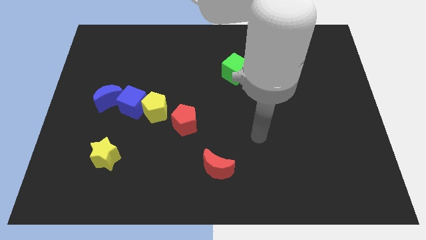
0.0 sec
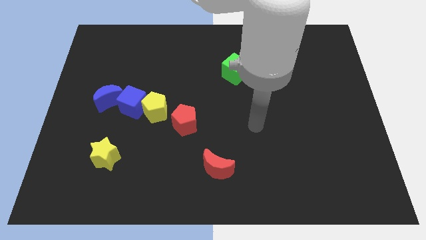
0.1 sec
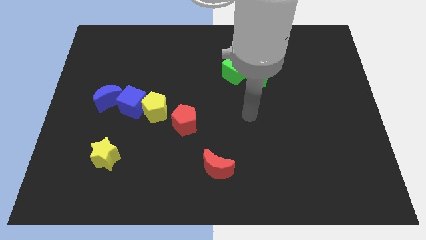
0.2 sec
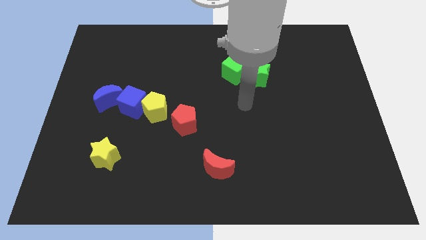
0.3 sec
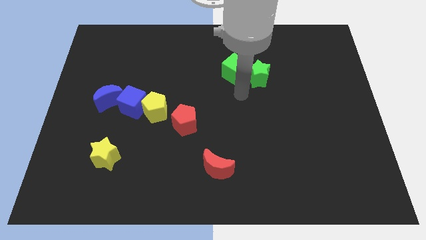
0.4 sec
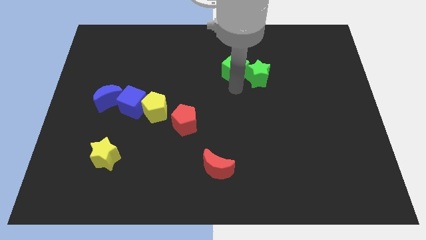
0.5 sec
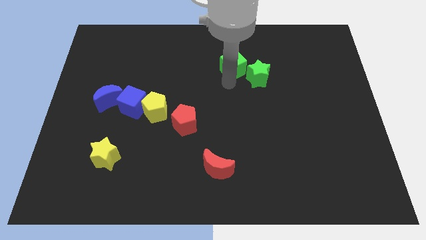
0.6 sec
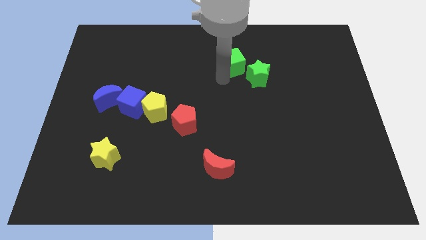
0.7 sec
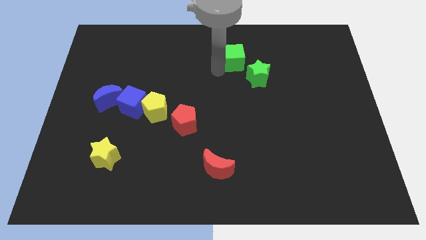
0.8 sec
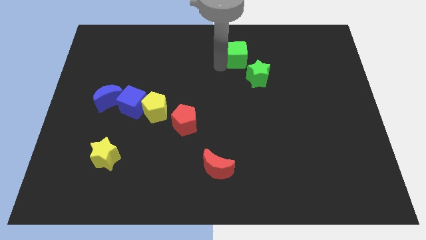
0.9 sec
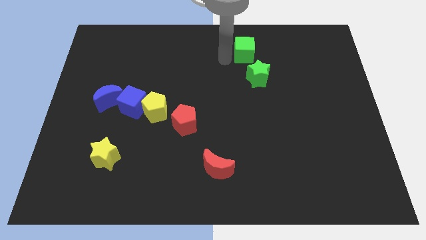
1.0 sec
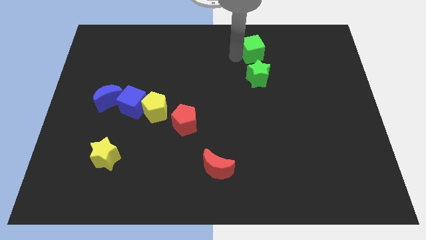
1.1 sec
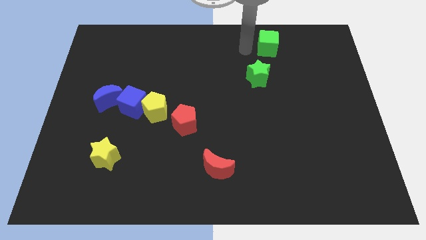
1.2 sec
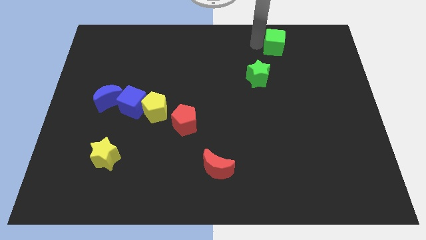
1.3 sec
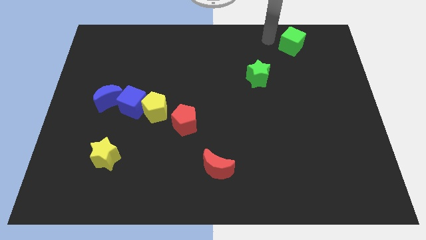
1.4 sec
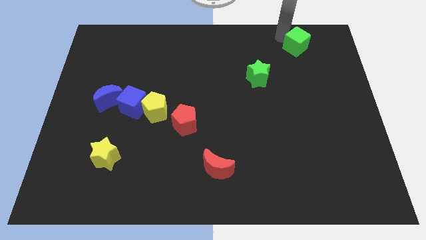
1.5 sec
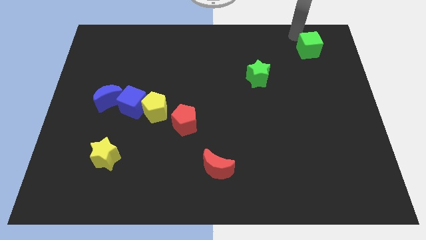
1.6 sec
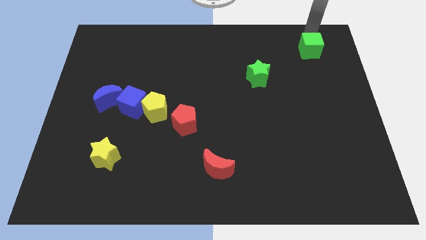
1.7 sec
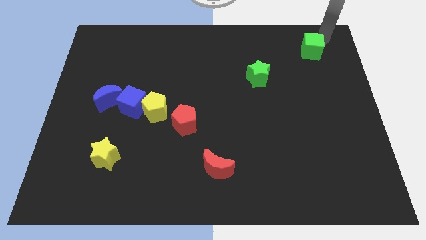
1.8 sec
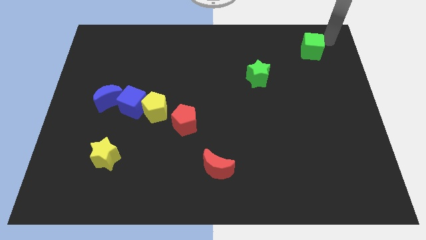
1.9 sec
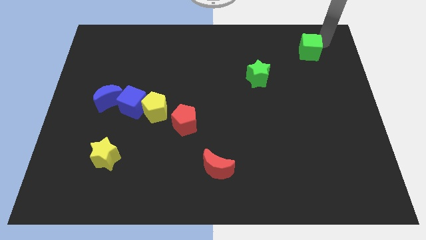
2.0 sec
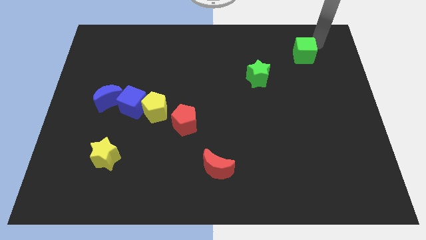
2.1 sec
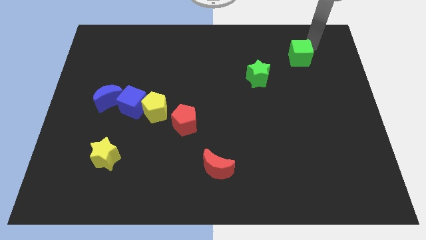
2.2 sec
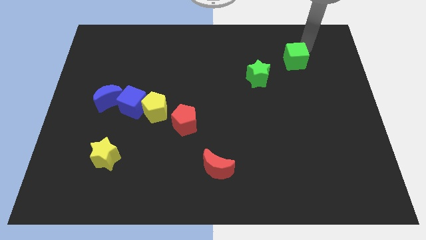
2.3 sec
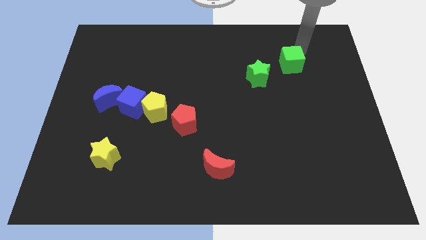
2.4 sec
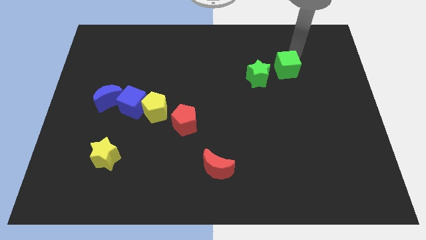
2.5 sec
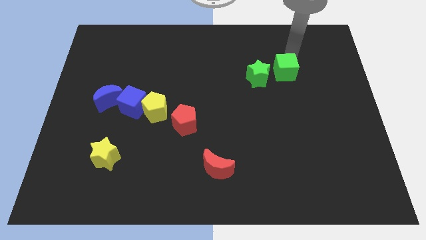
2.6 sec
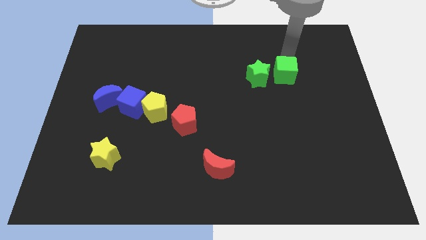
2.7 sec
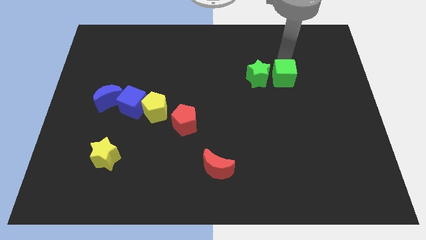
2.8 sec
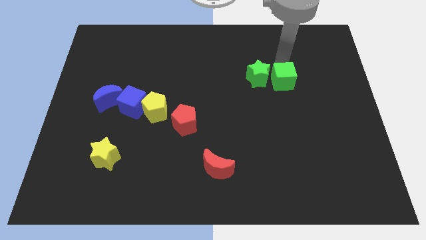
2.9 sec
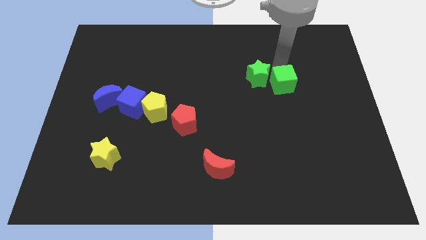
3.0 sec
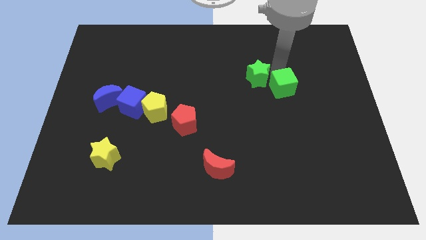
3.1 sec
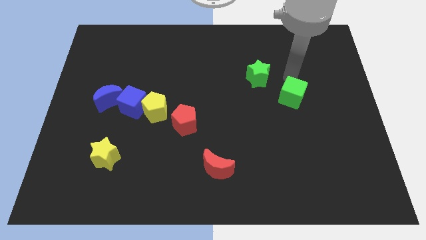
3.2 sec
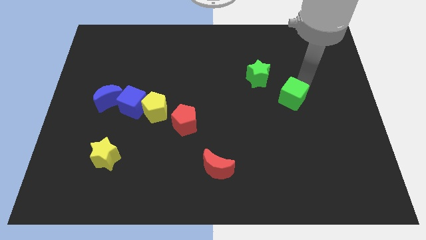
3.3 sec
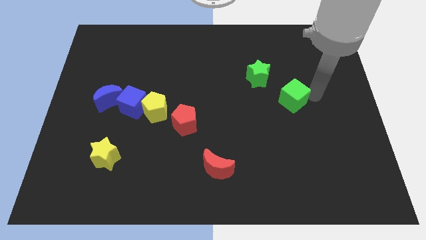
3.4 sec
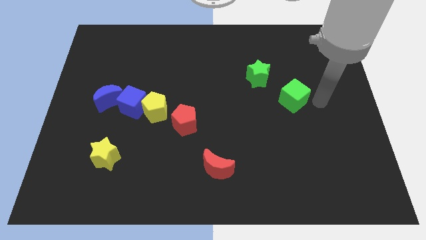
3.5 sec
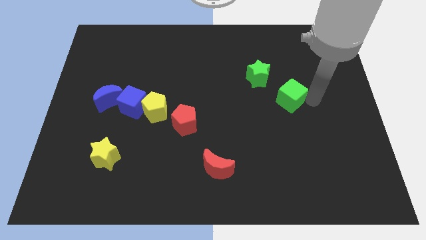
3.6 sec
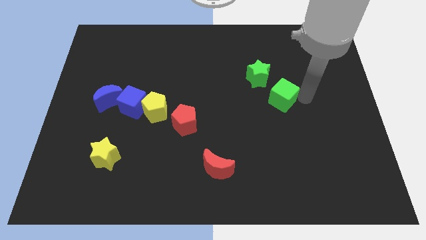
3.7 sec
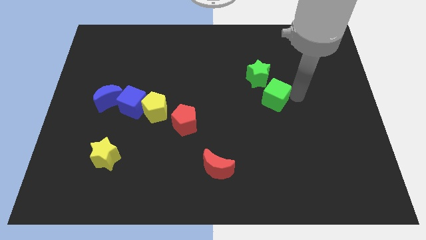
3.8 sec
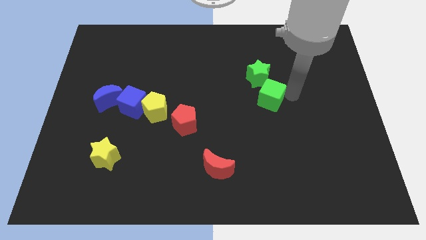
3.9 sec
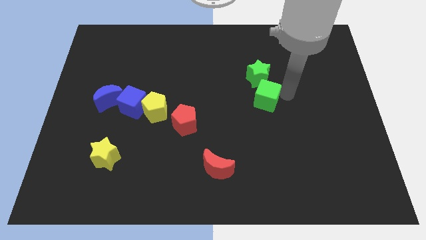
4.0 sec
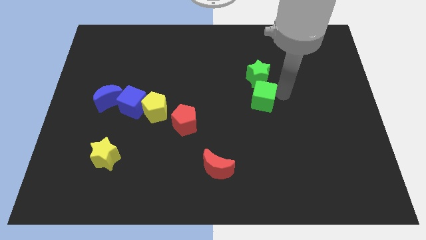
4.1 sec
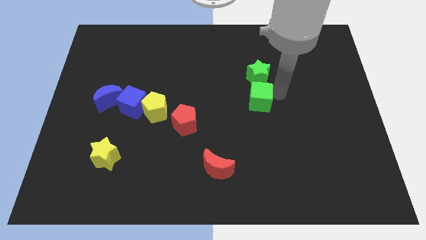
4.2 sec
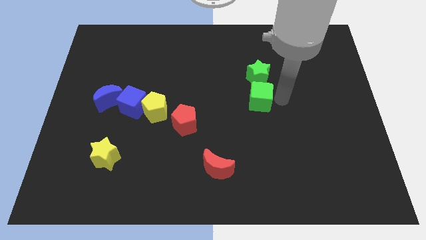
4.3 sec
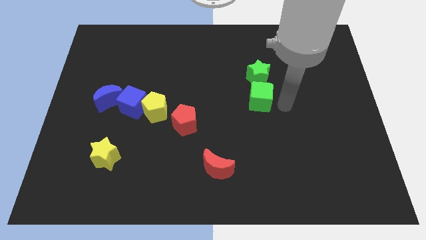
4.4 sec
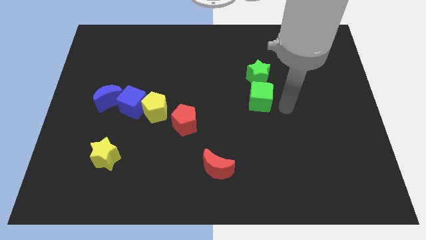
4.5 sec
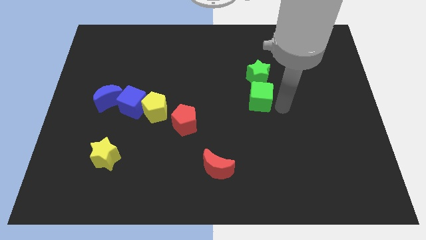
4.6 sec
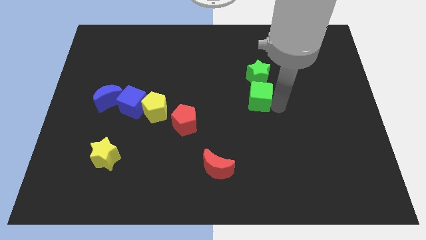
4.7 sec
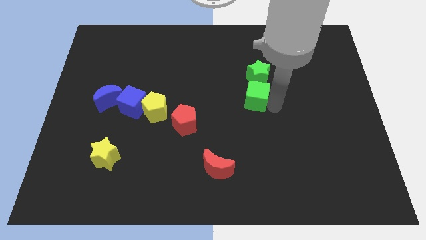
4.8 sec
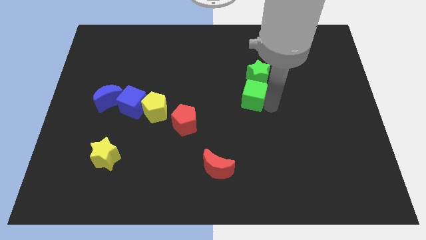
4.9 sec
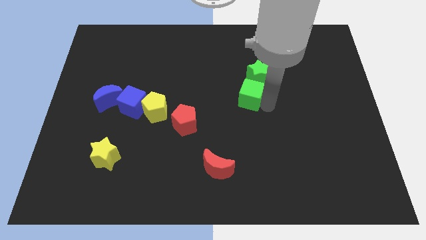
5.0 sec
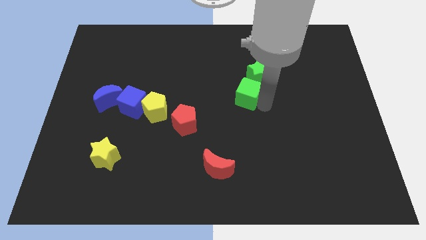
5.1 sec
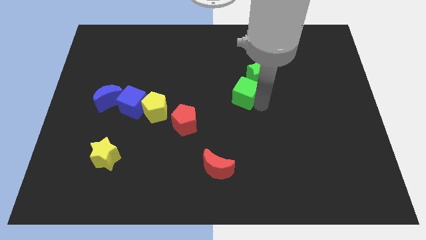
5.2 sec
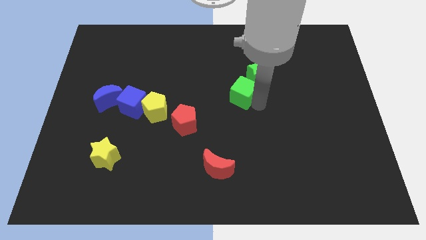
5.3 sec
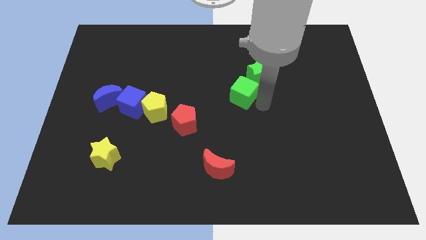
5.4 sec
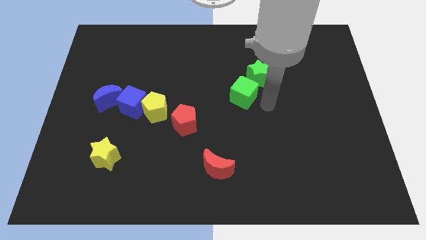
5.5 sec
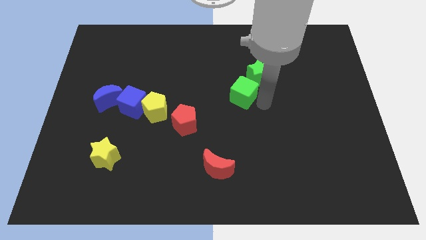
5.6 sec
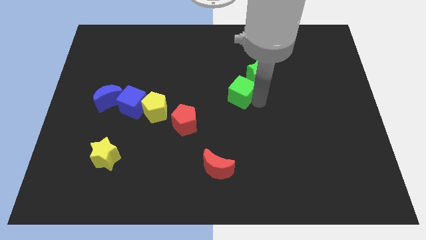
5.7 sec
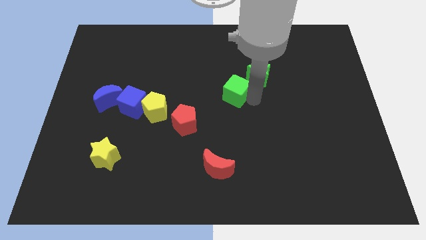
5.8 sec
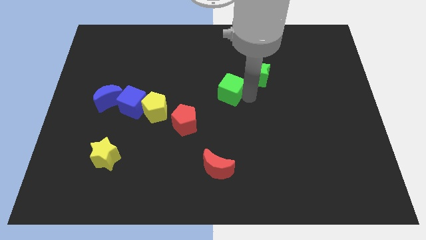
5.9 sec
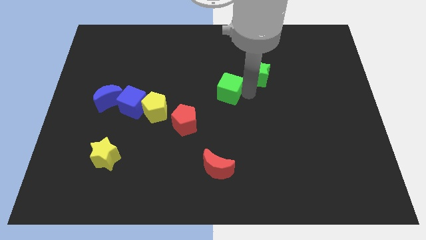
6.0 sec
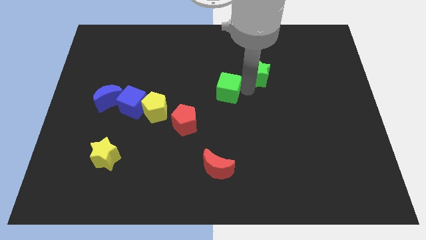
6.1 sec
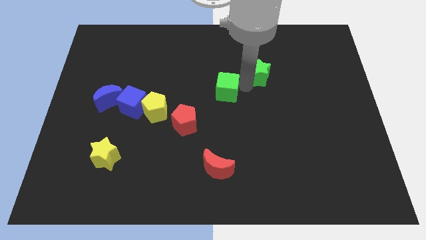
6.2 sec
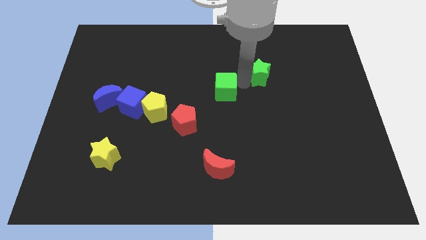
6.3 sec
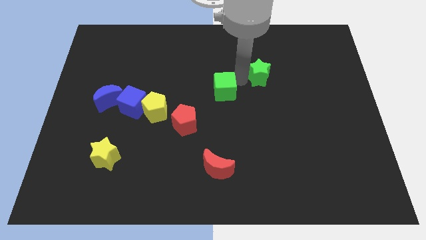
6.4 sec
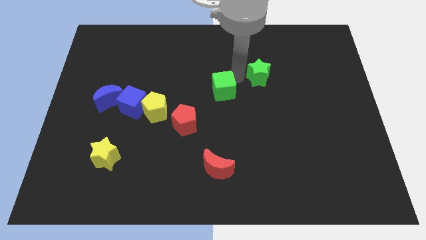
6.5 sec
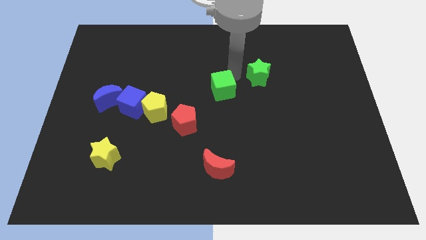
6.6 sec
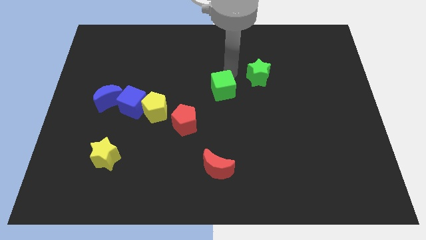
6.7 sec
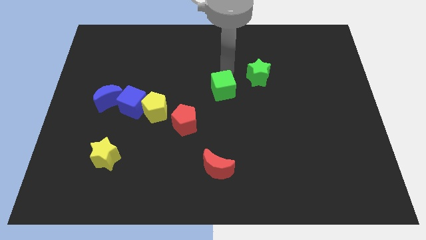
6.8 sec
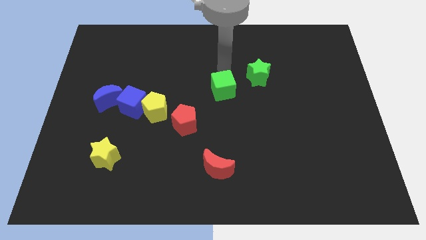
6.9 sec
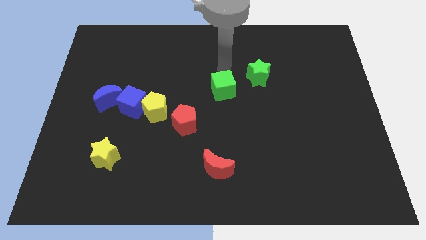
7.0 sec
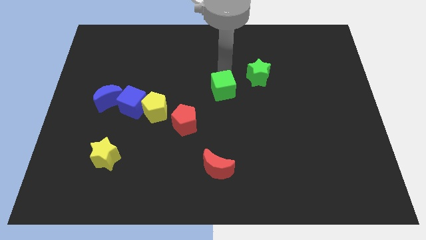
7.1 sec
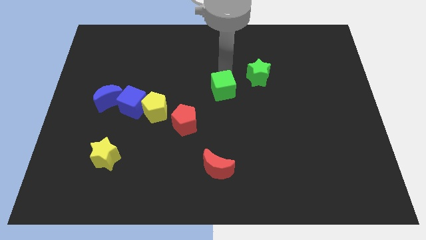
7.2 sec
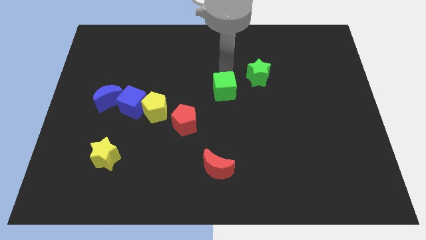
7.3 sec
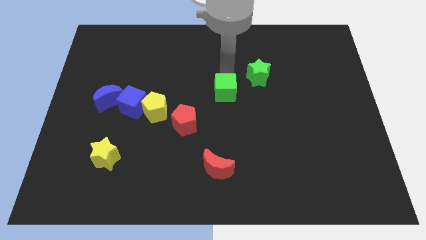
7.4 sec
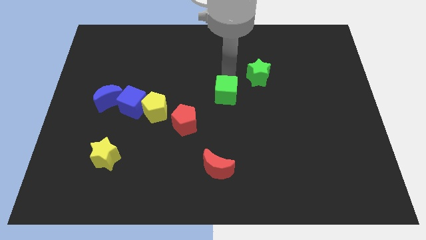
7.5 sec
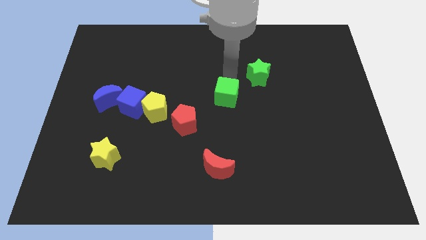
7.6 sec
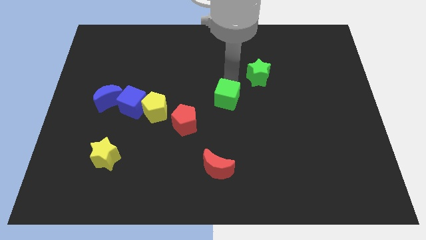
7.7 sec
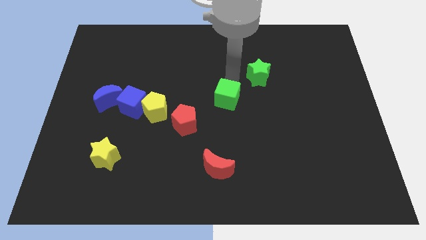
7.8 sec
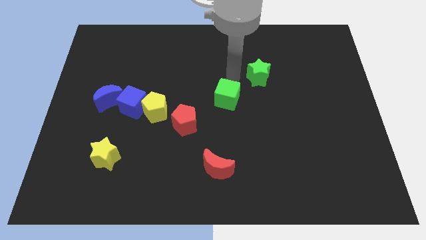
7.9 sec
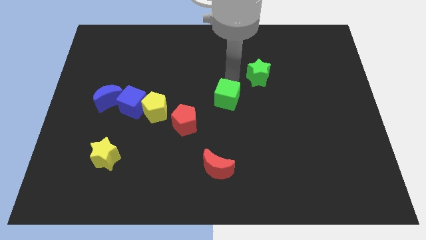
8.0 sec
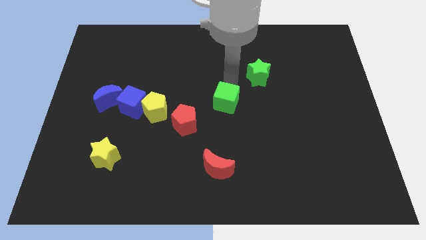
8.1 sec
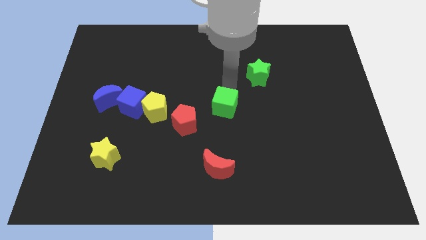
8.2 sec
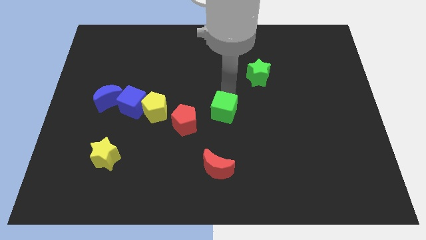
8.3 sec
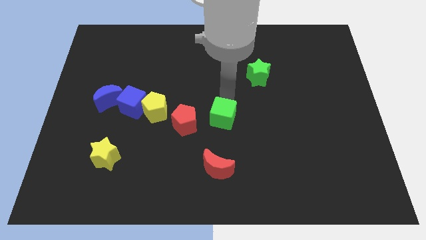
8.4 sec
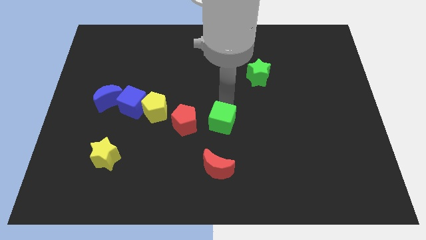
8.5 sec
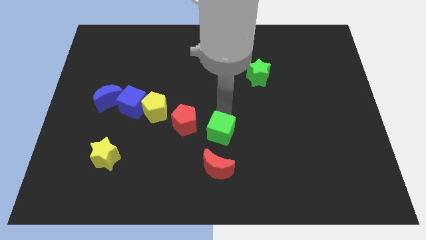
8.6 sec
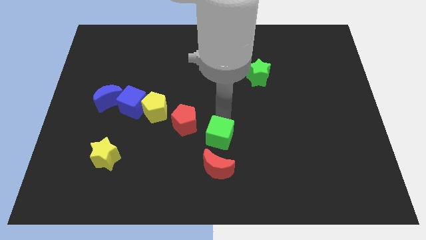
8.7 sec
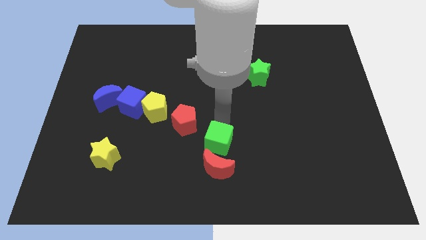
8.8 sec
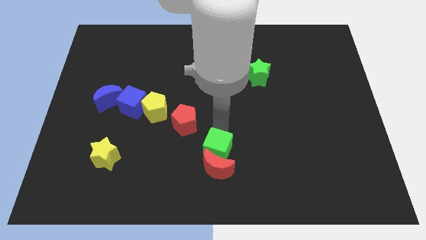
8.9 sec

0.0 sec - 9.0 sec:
move the green cube close to the red moon
